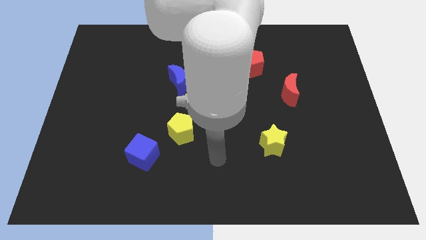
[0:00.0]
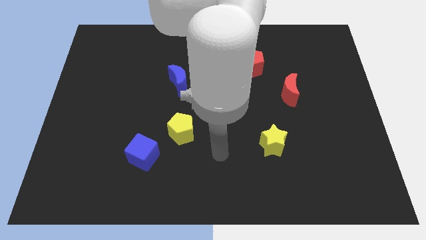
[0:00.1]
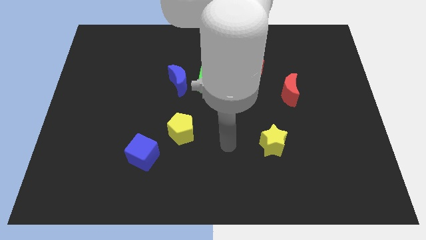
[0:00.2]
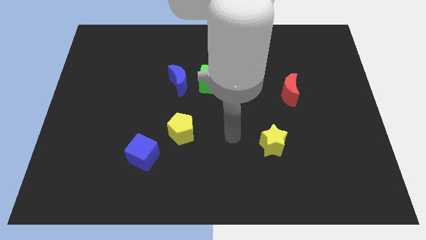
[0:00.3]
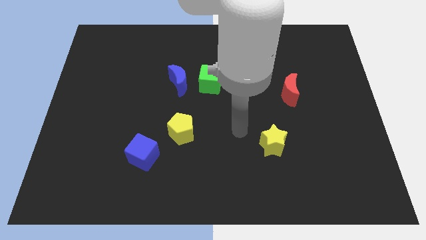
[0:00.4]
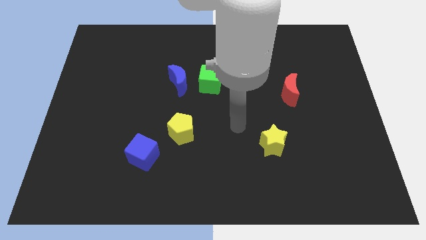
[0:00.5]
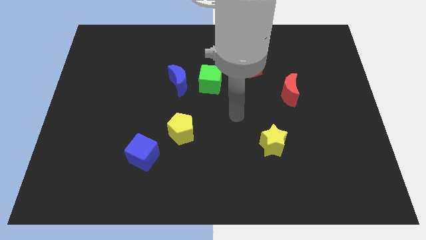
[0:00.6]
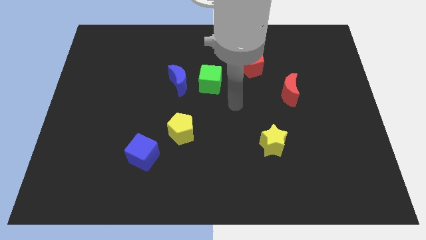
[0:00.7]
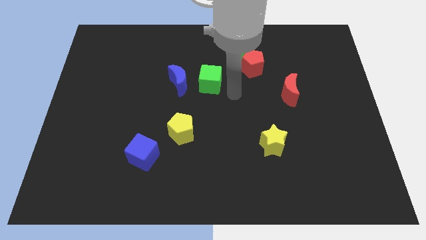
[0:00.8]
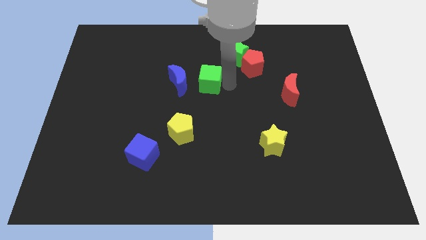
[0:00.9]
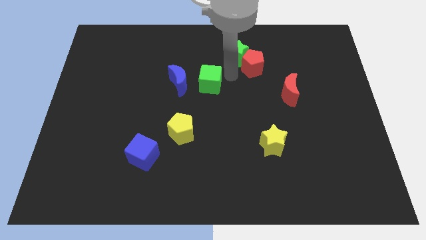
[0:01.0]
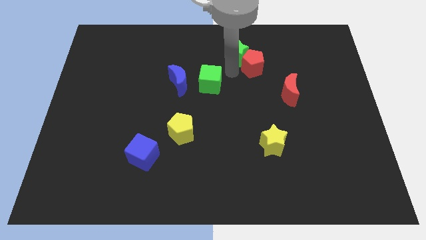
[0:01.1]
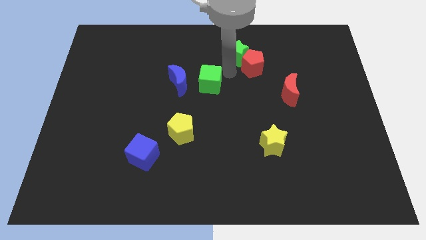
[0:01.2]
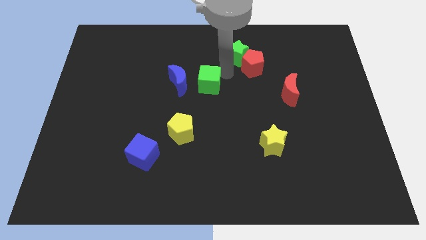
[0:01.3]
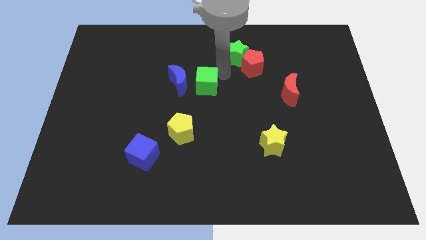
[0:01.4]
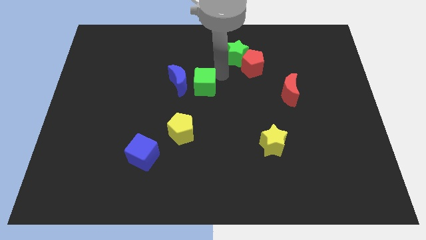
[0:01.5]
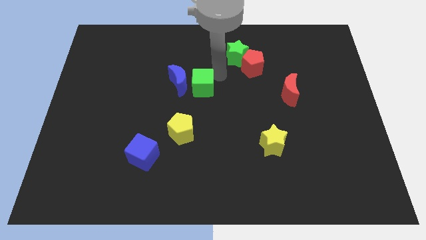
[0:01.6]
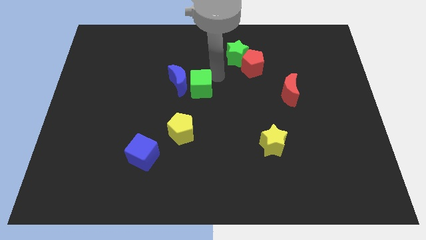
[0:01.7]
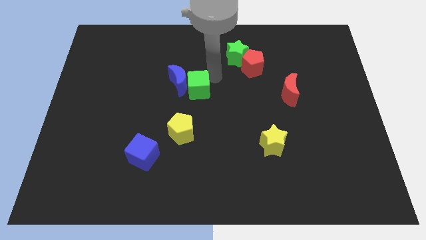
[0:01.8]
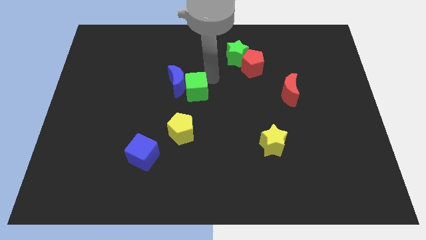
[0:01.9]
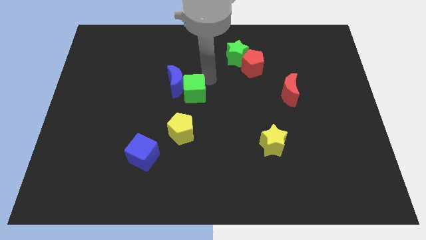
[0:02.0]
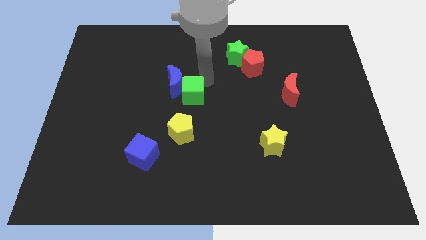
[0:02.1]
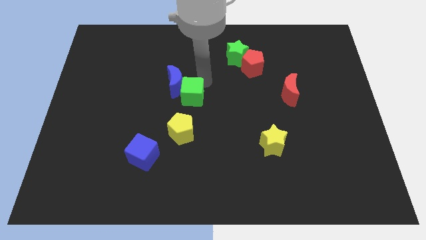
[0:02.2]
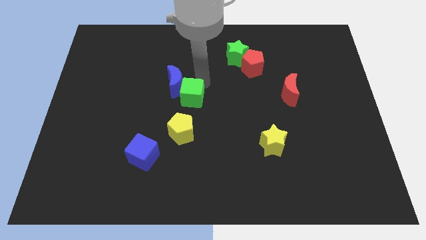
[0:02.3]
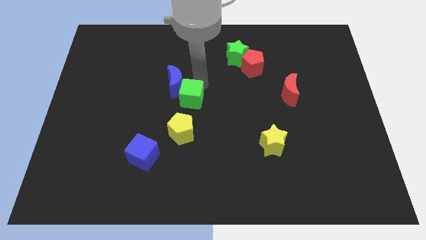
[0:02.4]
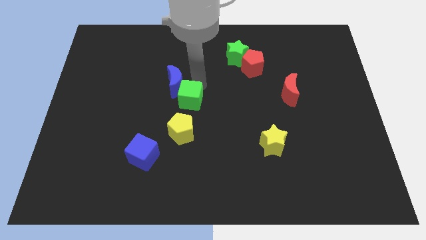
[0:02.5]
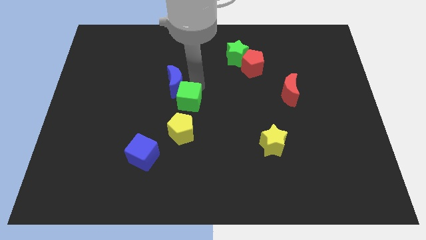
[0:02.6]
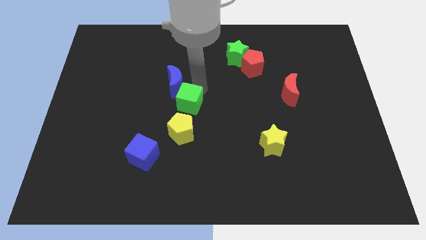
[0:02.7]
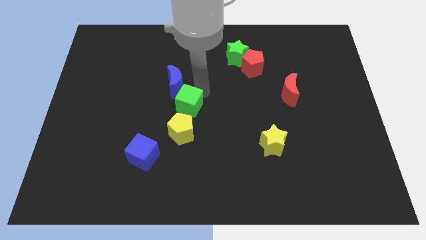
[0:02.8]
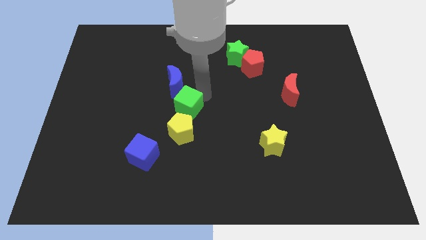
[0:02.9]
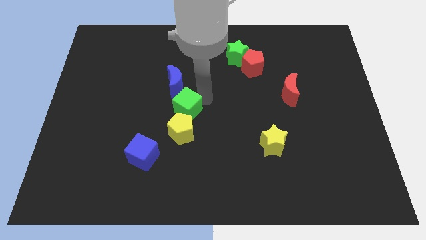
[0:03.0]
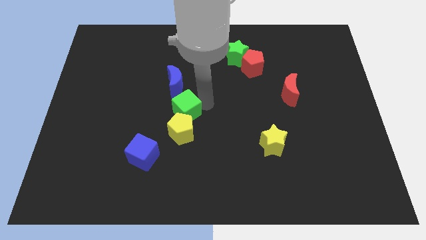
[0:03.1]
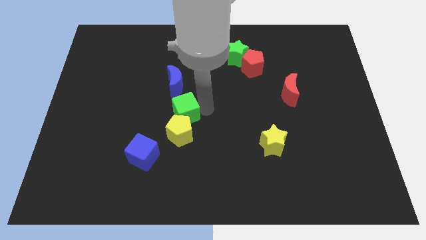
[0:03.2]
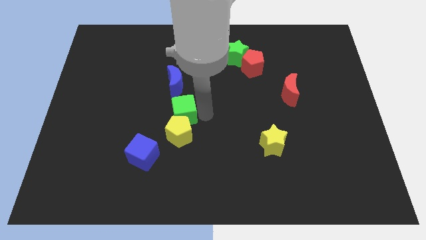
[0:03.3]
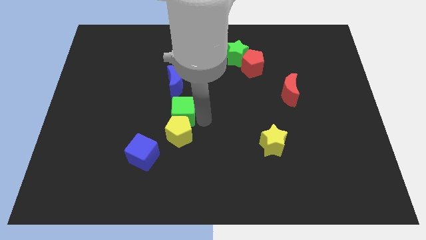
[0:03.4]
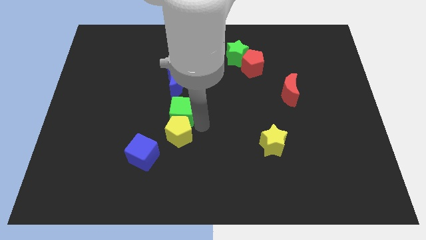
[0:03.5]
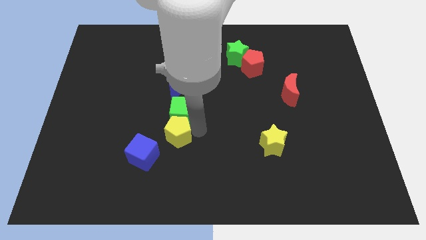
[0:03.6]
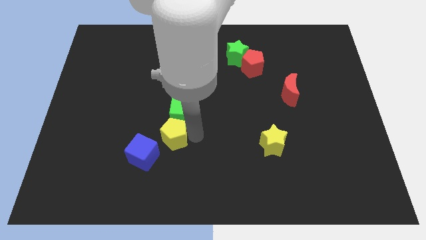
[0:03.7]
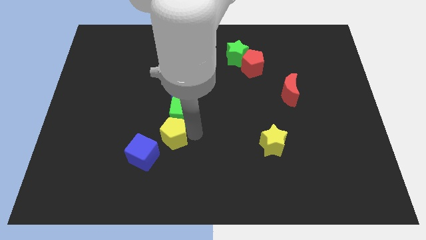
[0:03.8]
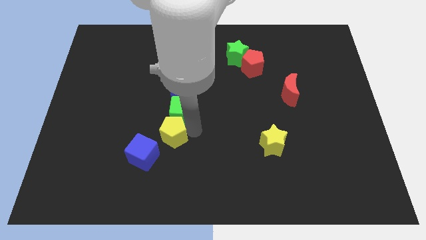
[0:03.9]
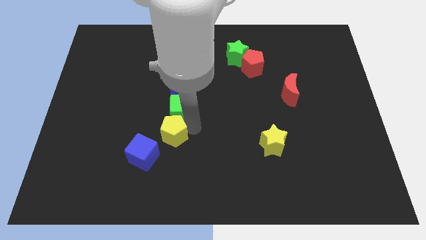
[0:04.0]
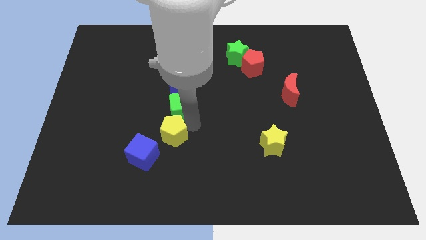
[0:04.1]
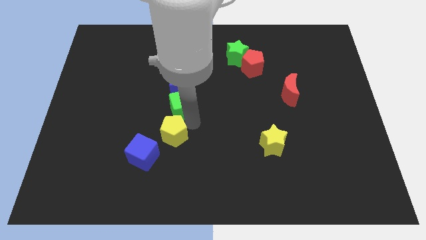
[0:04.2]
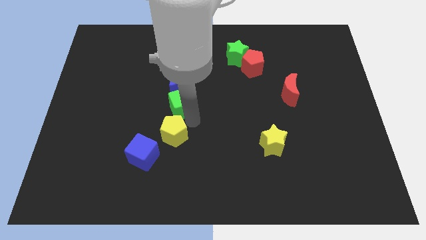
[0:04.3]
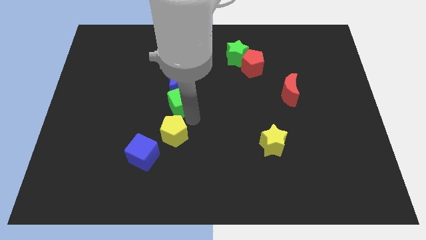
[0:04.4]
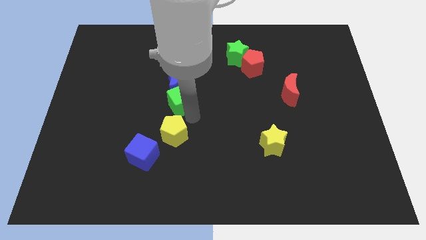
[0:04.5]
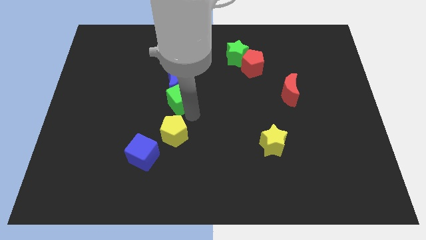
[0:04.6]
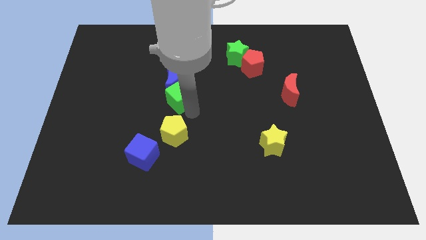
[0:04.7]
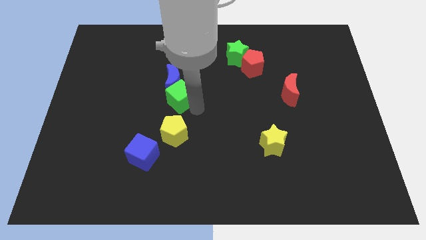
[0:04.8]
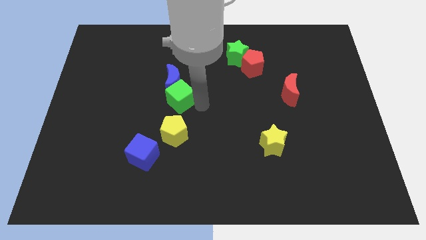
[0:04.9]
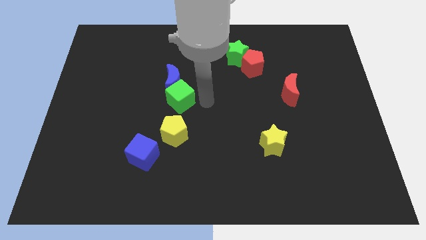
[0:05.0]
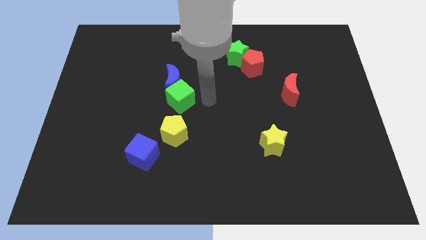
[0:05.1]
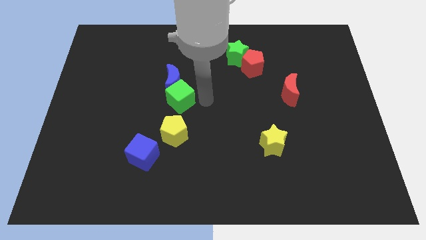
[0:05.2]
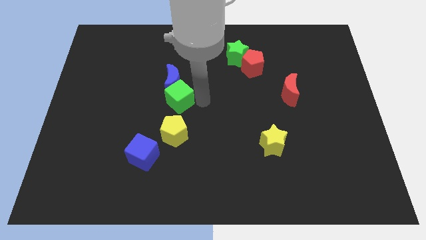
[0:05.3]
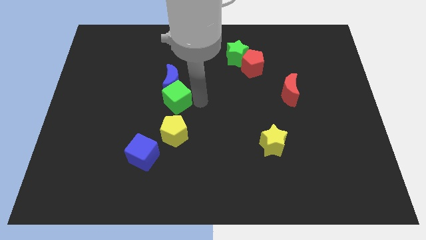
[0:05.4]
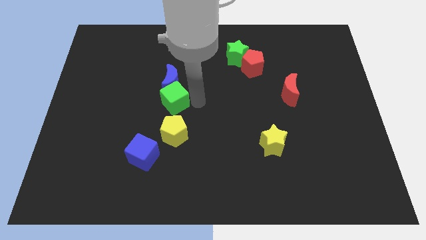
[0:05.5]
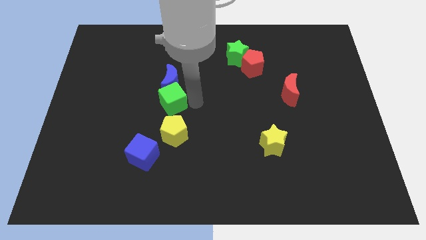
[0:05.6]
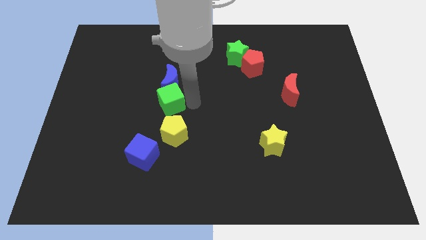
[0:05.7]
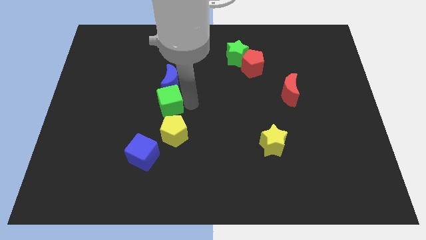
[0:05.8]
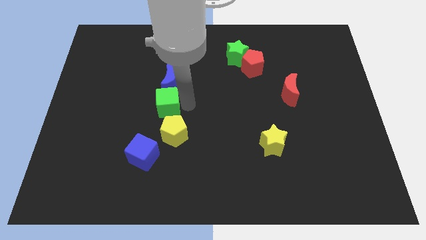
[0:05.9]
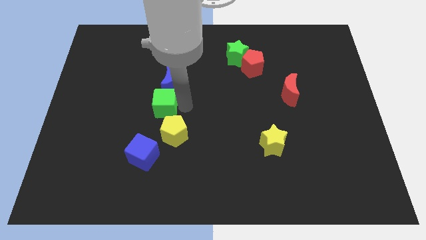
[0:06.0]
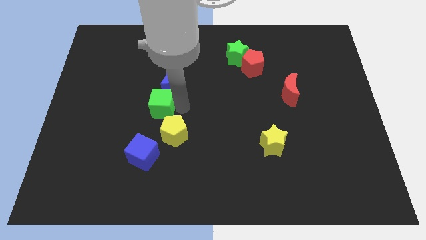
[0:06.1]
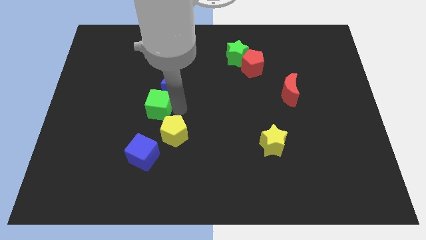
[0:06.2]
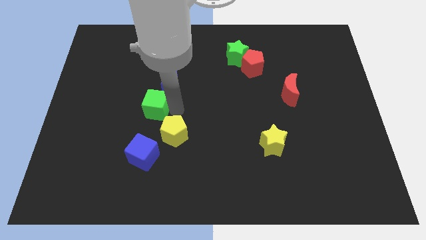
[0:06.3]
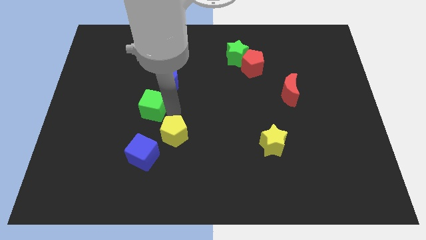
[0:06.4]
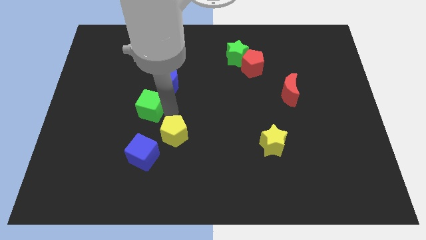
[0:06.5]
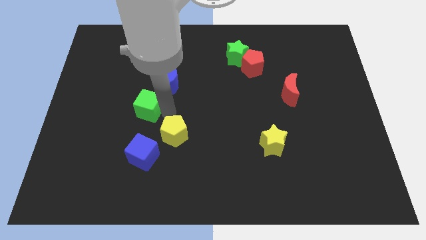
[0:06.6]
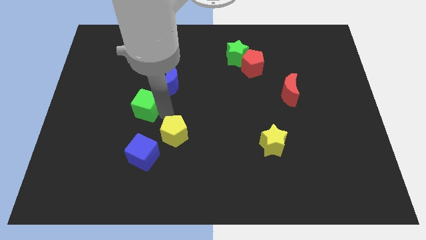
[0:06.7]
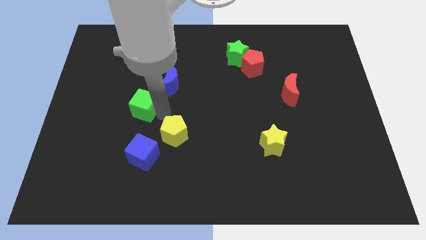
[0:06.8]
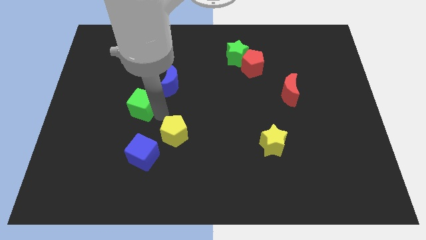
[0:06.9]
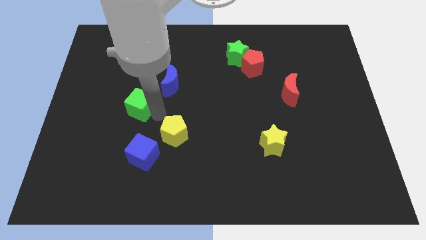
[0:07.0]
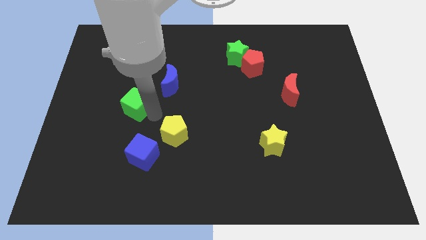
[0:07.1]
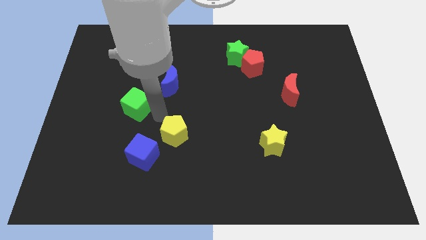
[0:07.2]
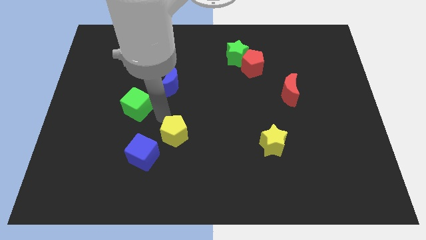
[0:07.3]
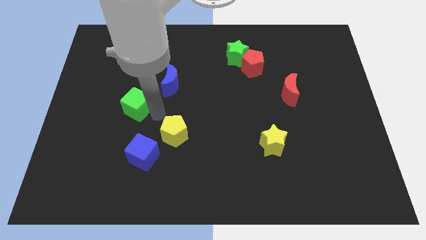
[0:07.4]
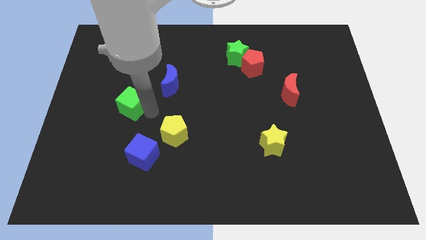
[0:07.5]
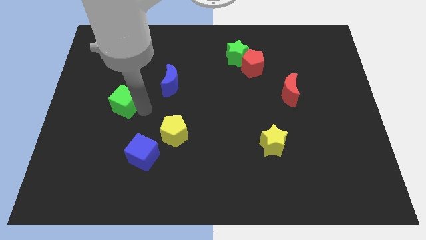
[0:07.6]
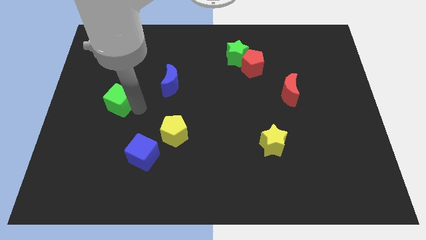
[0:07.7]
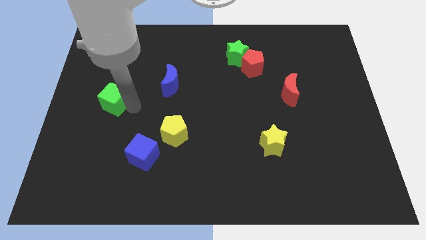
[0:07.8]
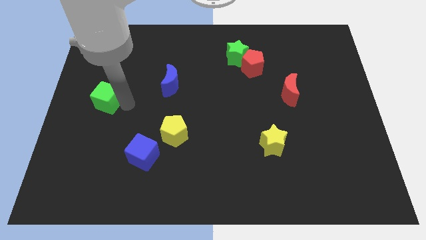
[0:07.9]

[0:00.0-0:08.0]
slide the green cube to the center left
